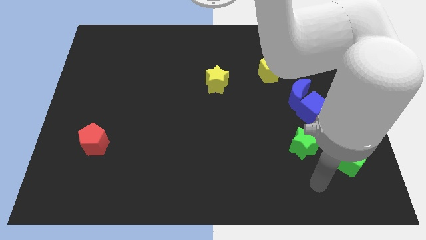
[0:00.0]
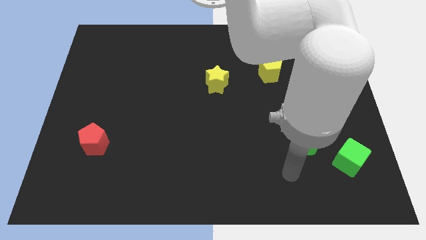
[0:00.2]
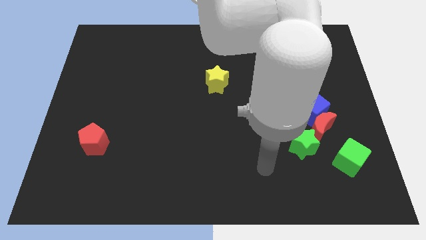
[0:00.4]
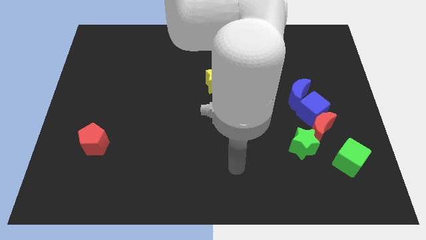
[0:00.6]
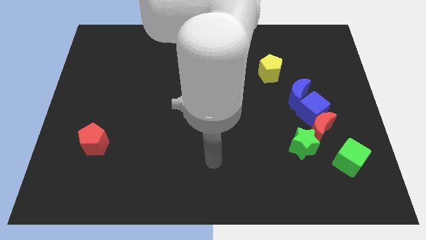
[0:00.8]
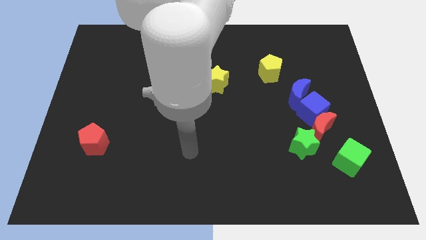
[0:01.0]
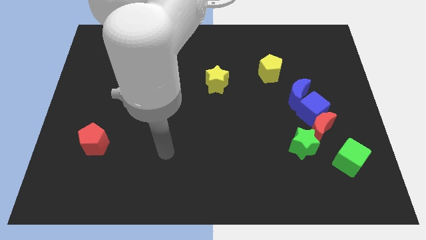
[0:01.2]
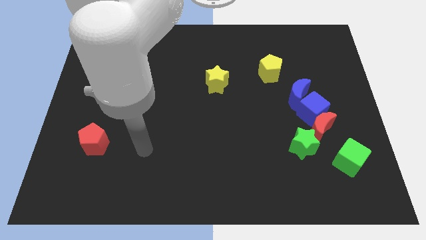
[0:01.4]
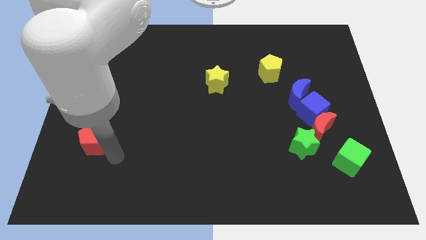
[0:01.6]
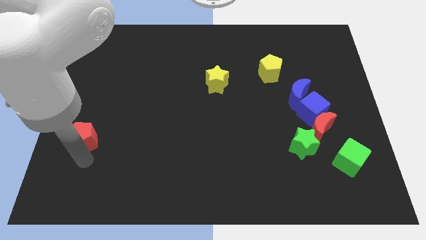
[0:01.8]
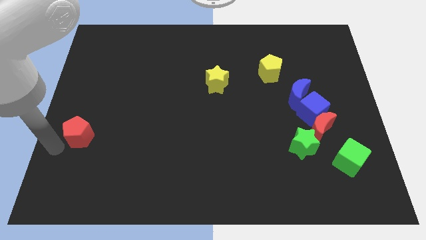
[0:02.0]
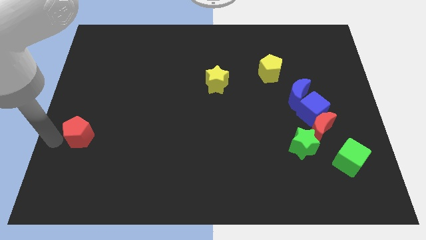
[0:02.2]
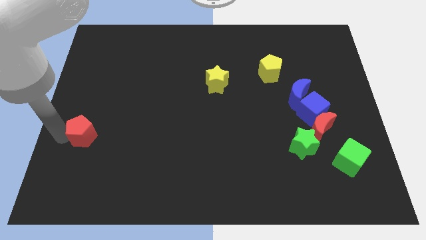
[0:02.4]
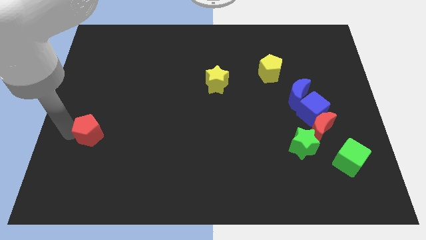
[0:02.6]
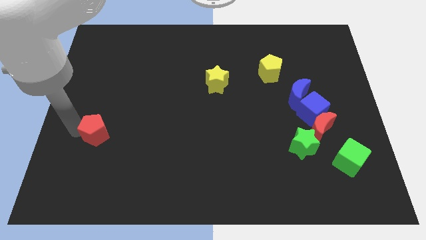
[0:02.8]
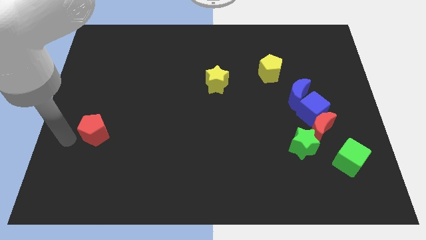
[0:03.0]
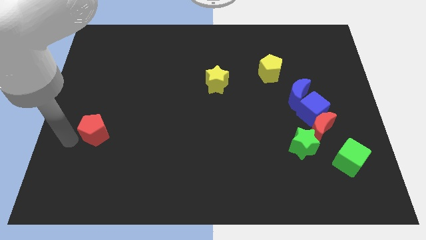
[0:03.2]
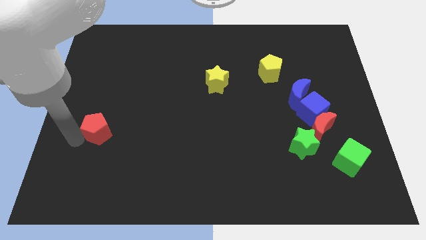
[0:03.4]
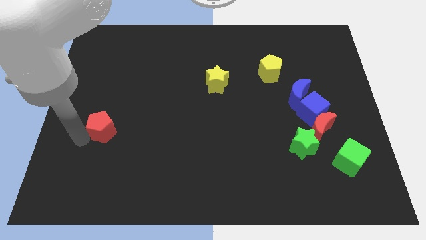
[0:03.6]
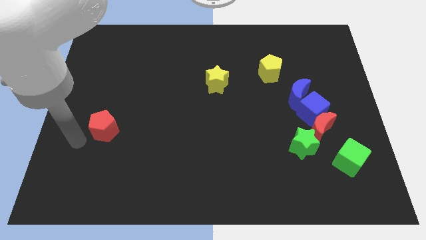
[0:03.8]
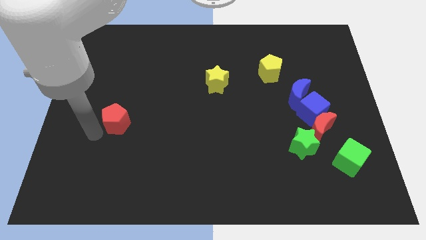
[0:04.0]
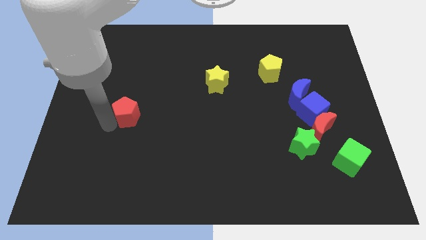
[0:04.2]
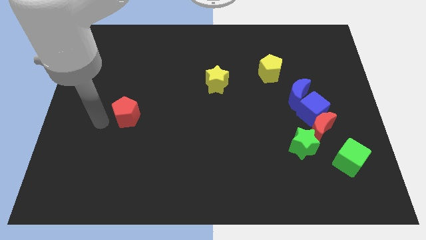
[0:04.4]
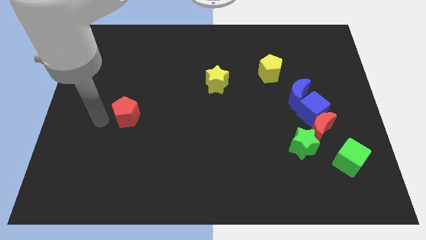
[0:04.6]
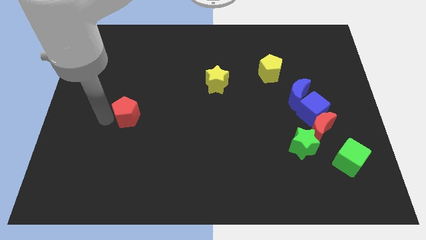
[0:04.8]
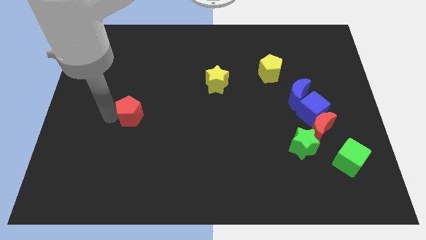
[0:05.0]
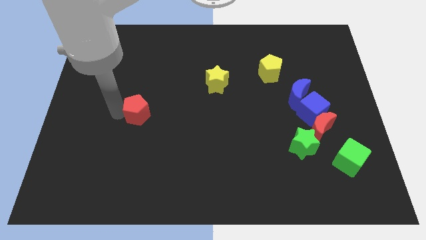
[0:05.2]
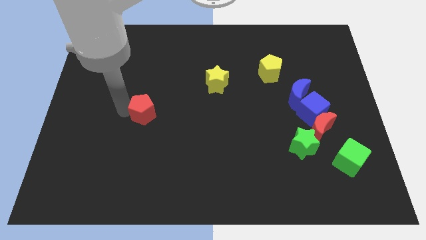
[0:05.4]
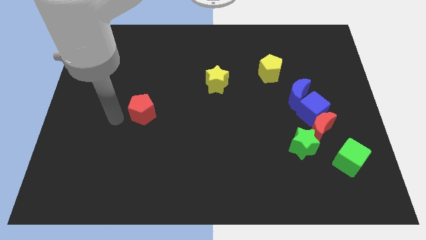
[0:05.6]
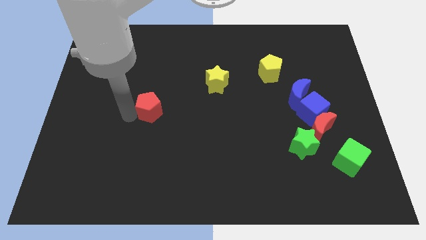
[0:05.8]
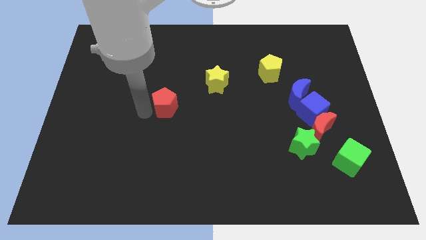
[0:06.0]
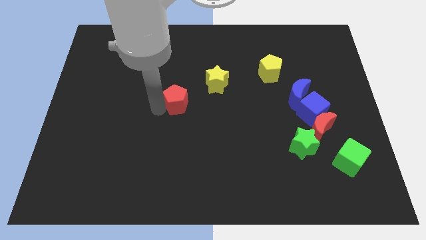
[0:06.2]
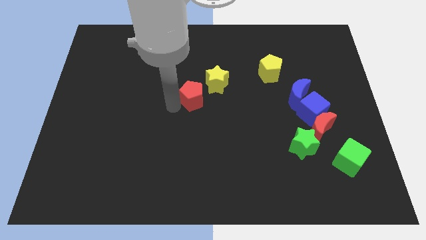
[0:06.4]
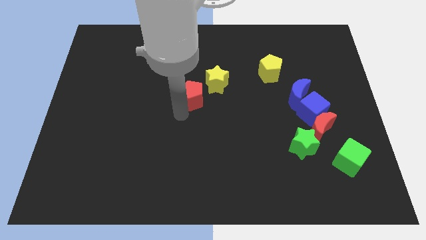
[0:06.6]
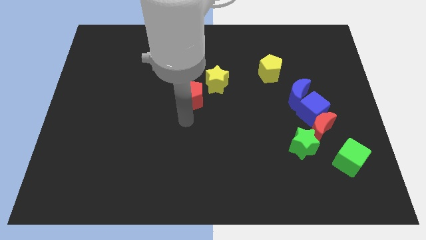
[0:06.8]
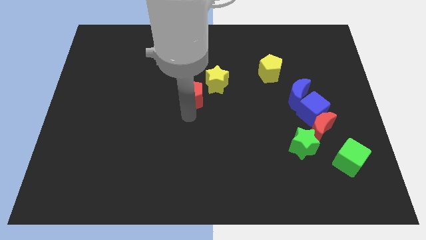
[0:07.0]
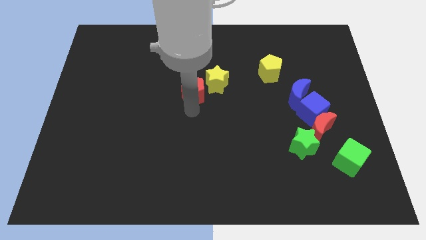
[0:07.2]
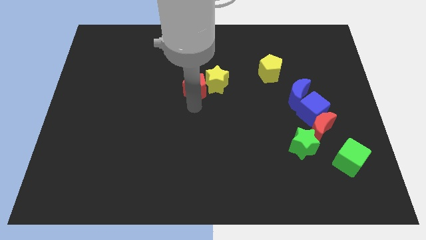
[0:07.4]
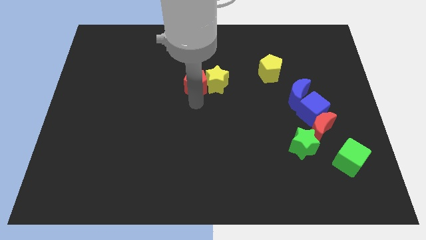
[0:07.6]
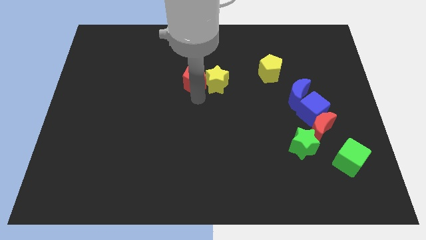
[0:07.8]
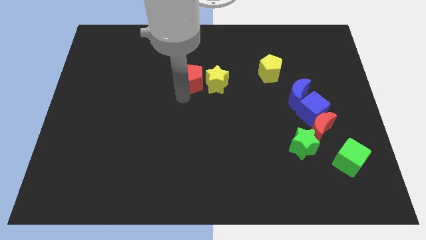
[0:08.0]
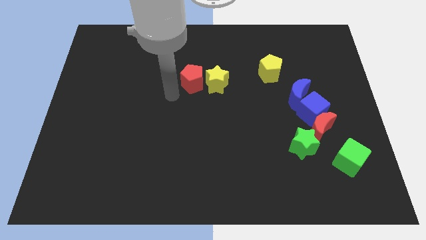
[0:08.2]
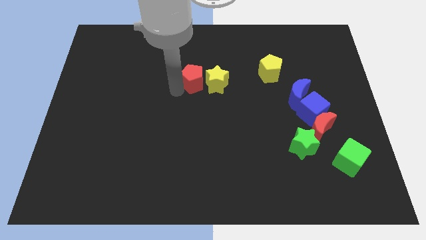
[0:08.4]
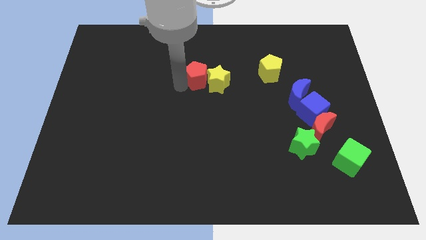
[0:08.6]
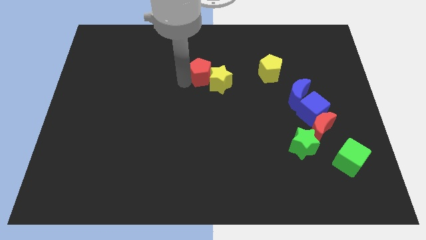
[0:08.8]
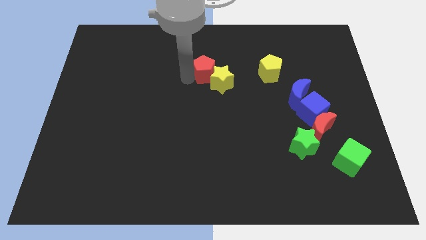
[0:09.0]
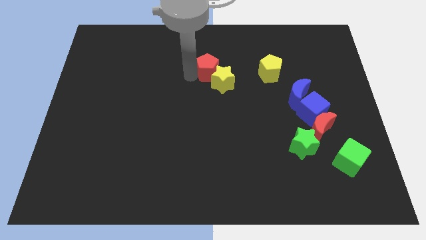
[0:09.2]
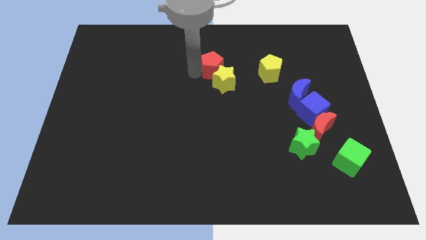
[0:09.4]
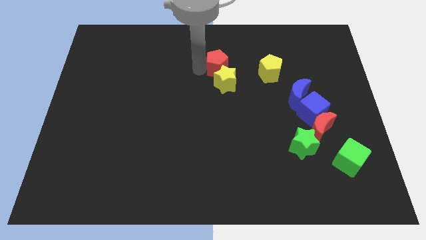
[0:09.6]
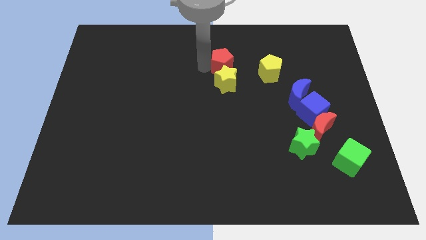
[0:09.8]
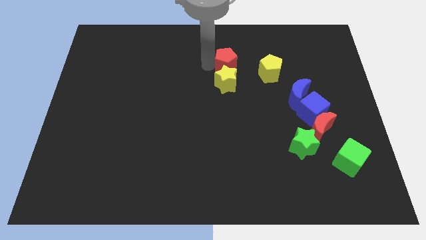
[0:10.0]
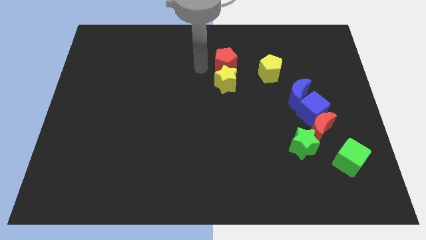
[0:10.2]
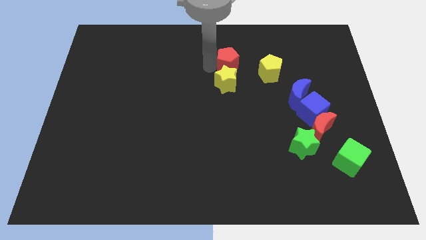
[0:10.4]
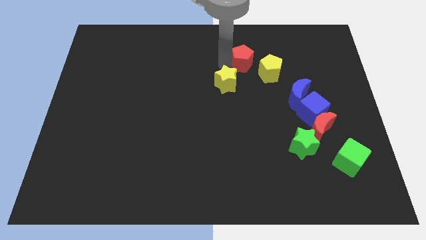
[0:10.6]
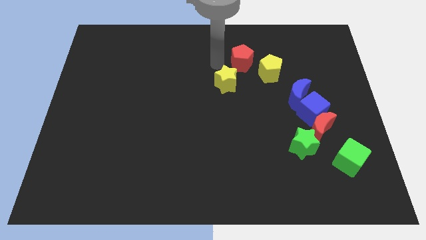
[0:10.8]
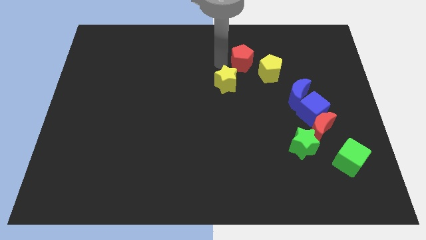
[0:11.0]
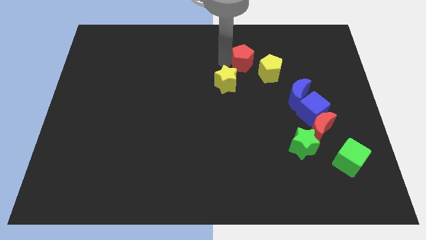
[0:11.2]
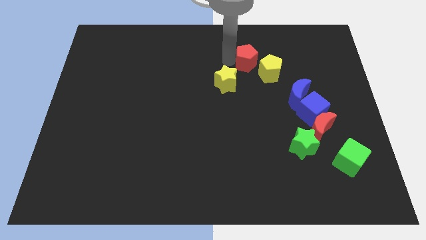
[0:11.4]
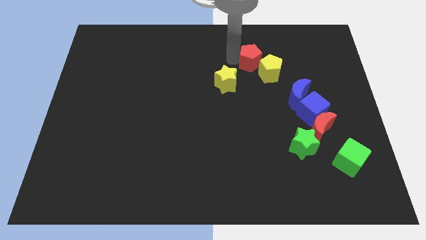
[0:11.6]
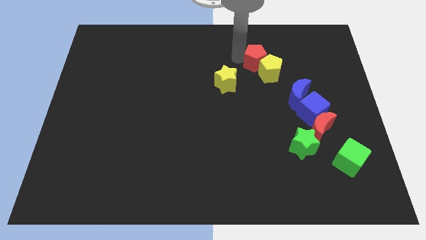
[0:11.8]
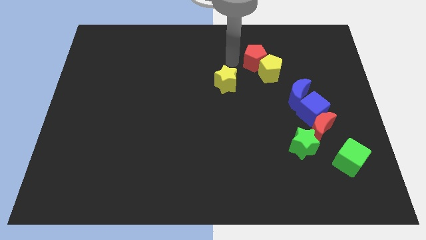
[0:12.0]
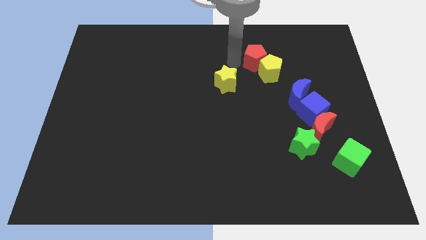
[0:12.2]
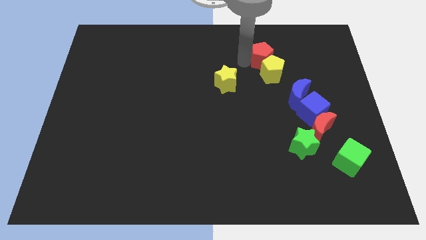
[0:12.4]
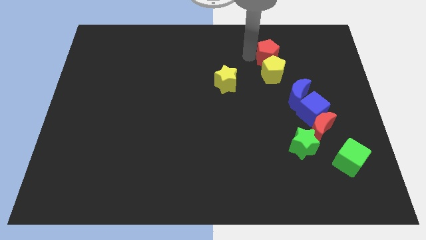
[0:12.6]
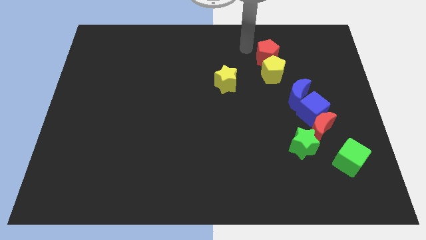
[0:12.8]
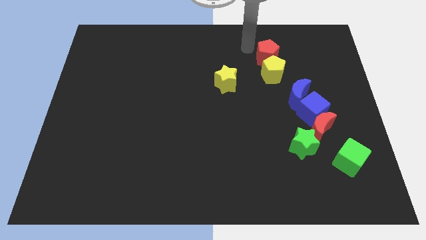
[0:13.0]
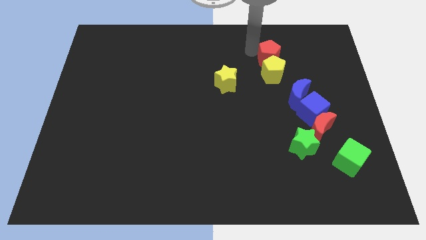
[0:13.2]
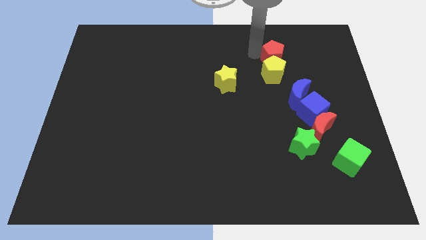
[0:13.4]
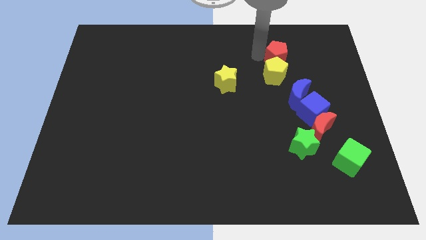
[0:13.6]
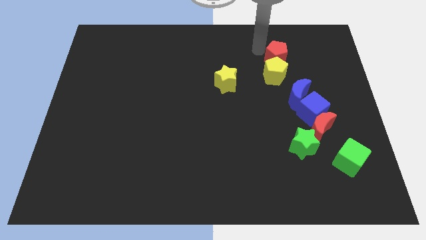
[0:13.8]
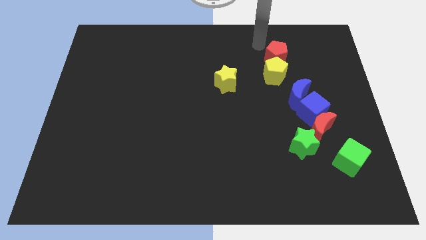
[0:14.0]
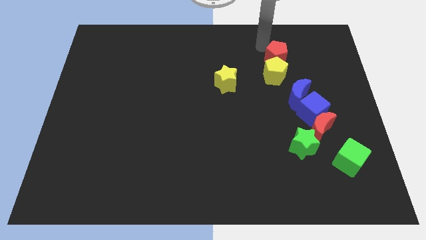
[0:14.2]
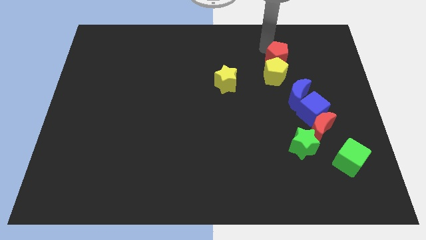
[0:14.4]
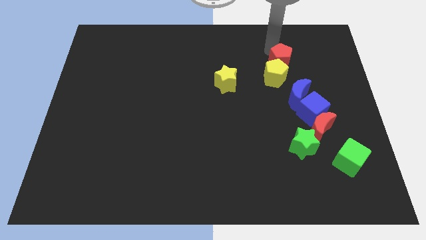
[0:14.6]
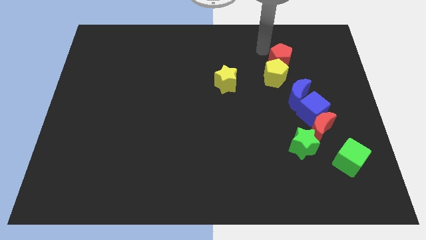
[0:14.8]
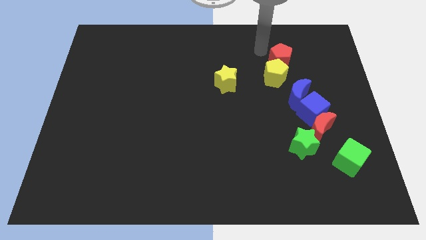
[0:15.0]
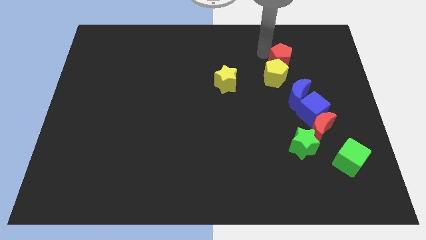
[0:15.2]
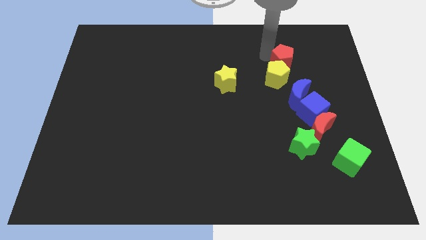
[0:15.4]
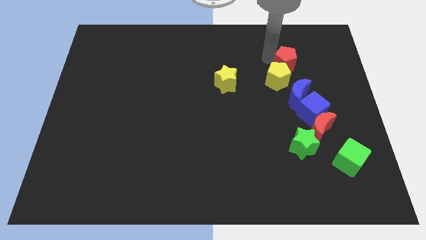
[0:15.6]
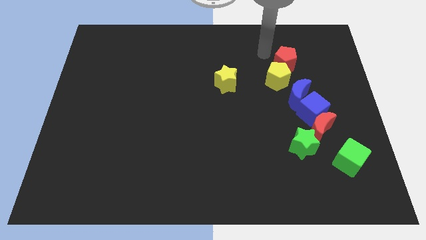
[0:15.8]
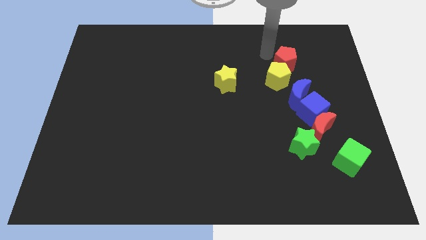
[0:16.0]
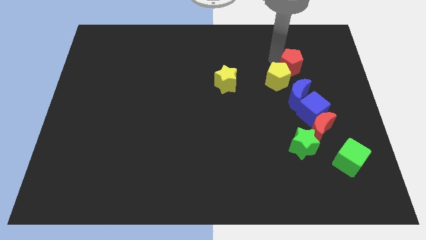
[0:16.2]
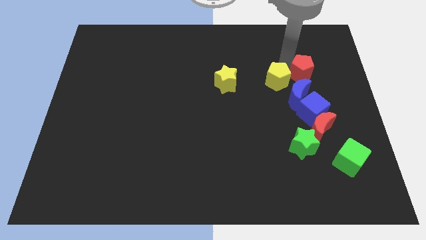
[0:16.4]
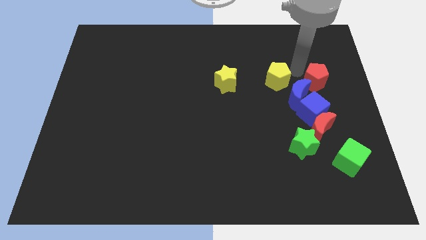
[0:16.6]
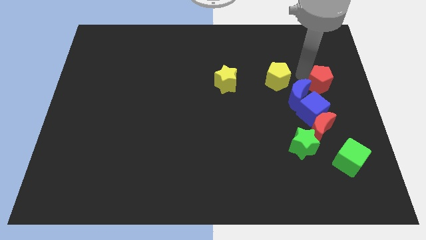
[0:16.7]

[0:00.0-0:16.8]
move the red pentagon to the right side
